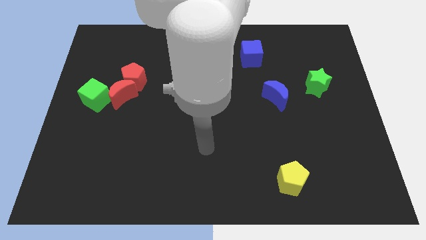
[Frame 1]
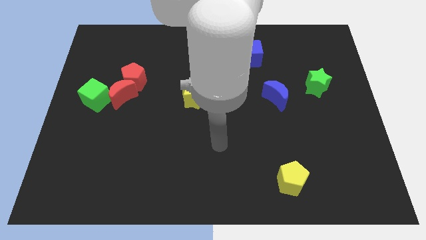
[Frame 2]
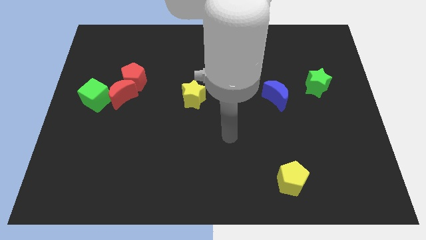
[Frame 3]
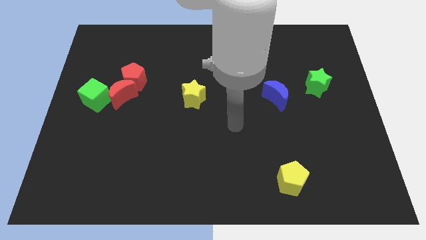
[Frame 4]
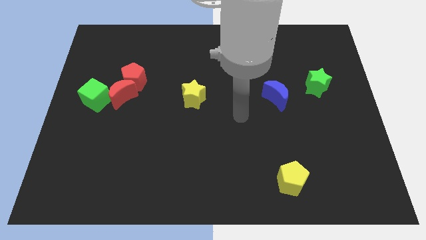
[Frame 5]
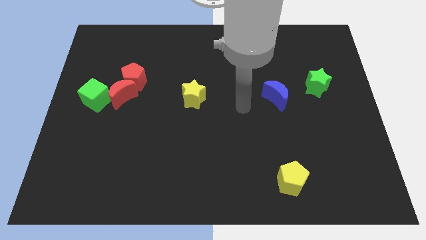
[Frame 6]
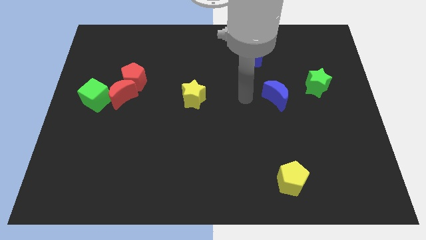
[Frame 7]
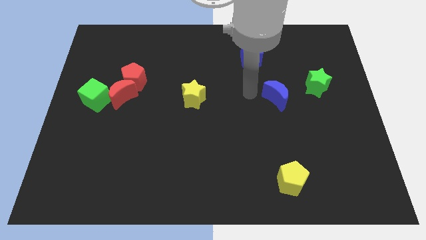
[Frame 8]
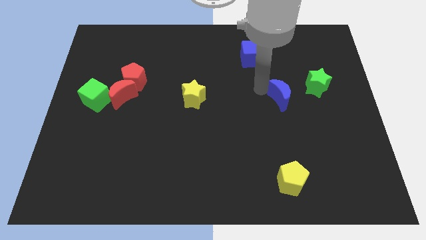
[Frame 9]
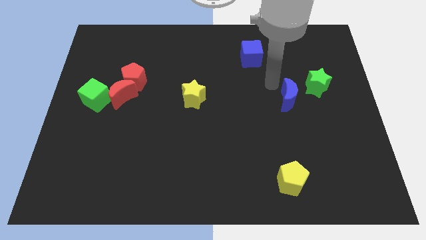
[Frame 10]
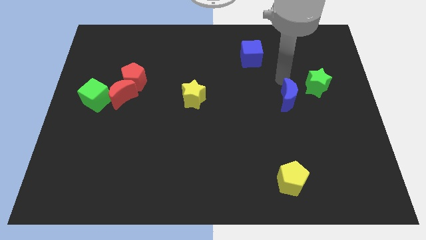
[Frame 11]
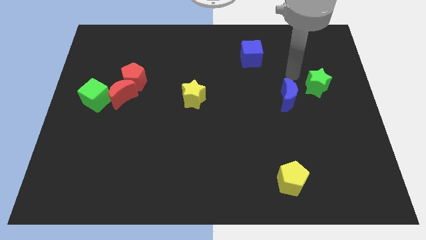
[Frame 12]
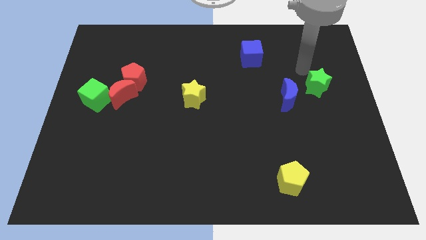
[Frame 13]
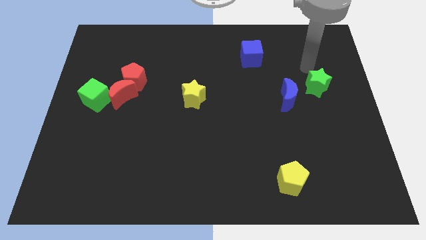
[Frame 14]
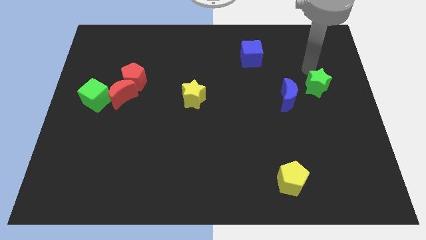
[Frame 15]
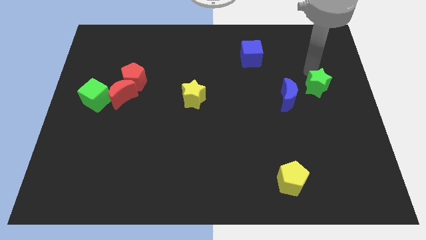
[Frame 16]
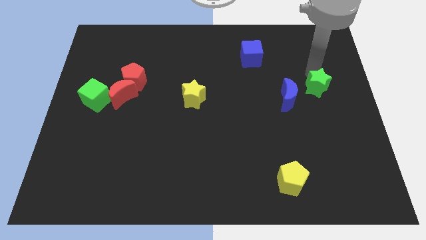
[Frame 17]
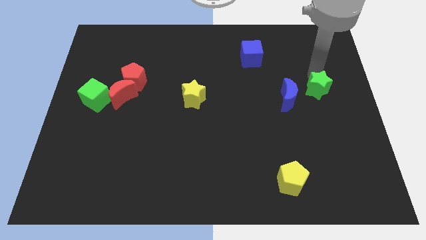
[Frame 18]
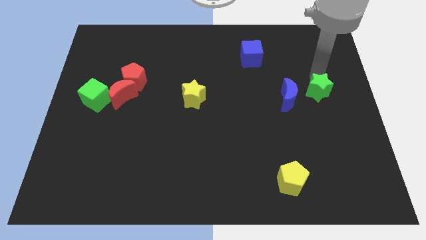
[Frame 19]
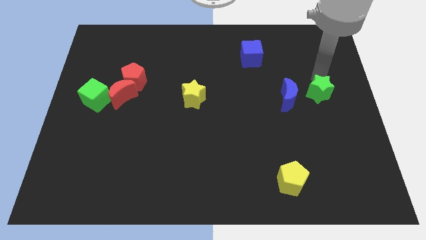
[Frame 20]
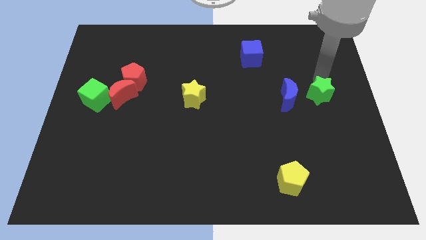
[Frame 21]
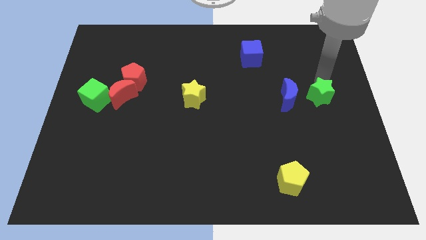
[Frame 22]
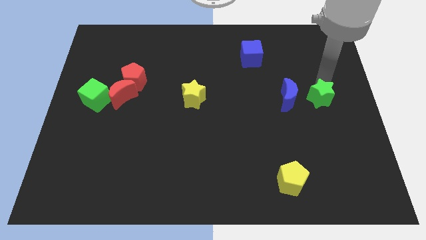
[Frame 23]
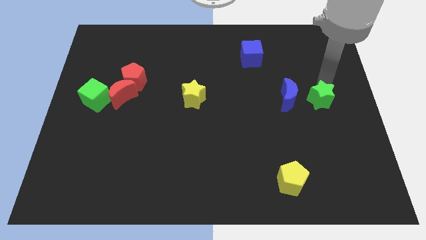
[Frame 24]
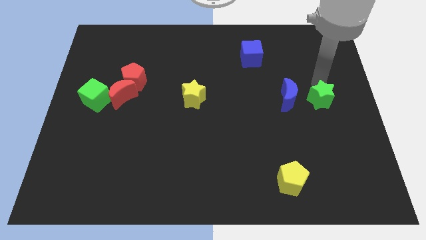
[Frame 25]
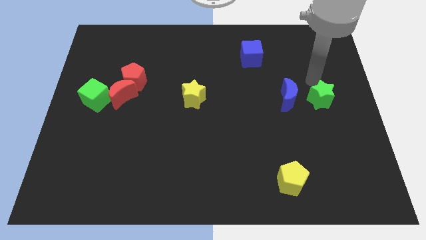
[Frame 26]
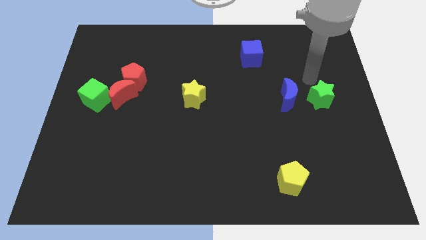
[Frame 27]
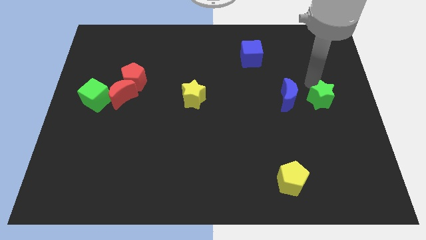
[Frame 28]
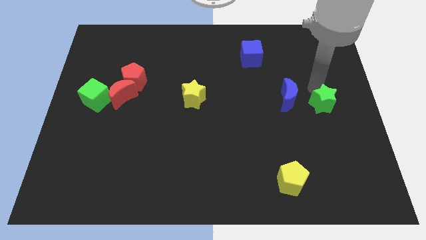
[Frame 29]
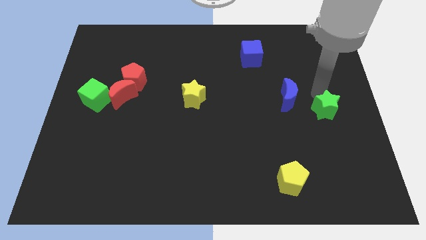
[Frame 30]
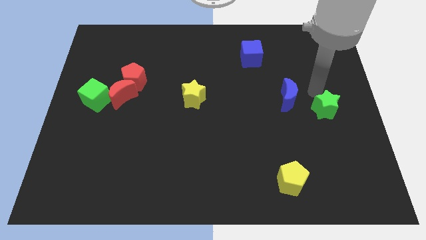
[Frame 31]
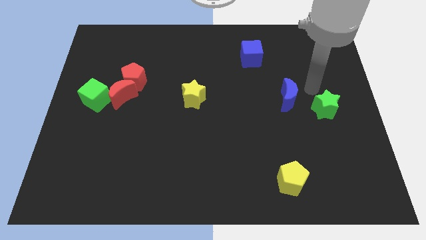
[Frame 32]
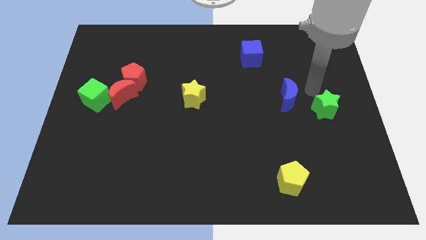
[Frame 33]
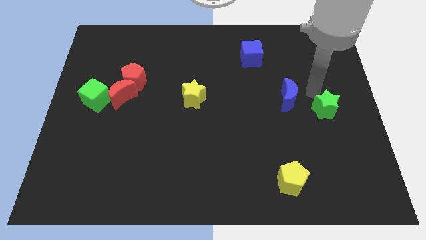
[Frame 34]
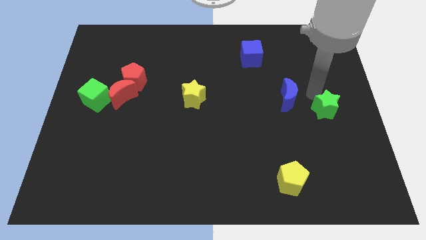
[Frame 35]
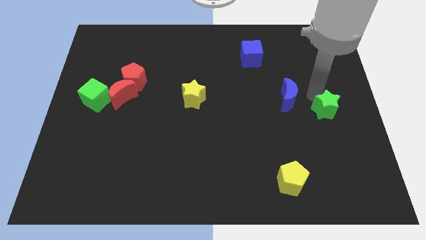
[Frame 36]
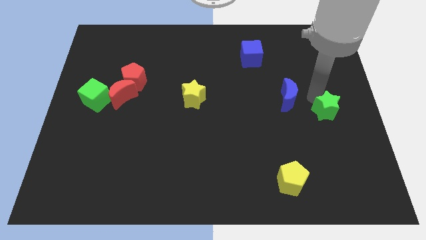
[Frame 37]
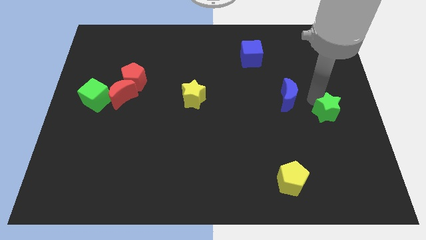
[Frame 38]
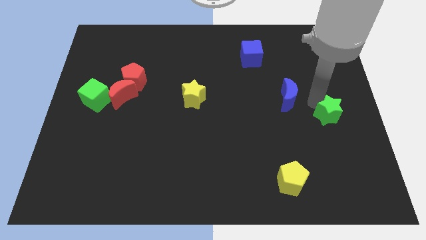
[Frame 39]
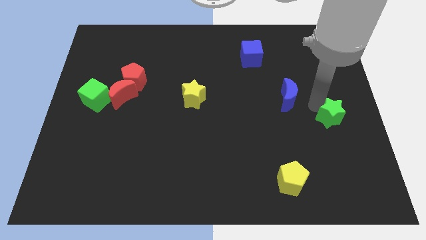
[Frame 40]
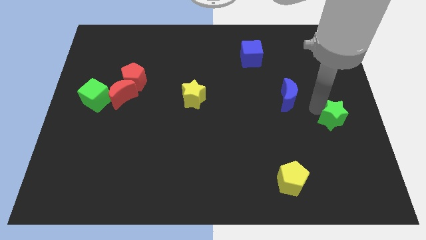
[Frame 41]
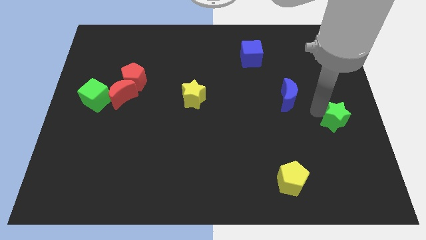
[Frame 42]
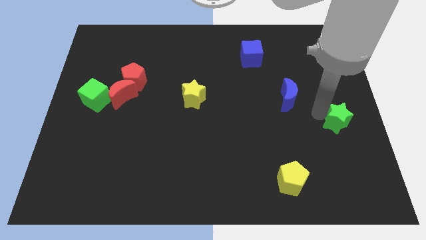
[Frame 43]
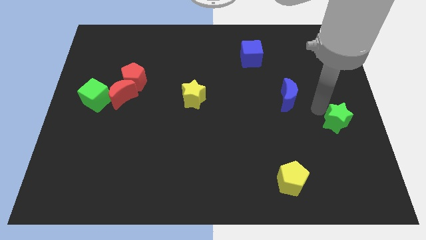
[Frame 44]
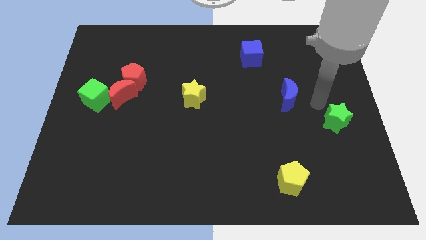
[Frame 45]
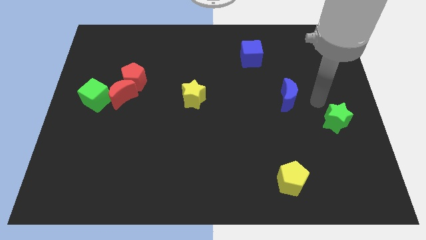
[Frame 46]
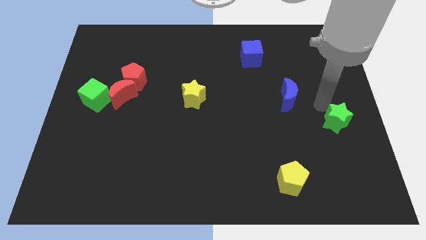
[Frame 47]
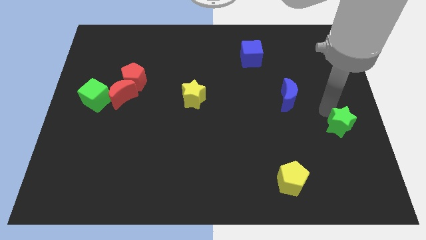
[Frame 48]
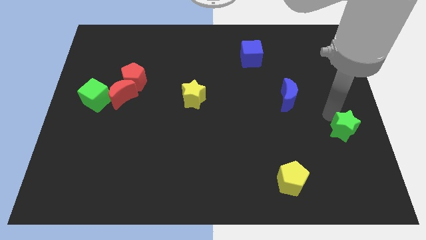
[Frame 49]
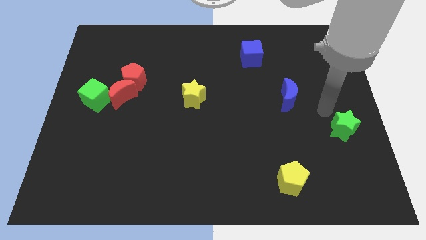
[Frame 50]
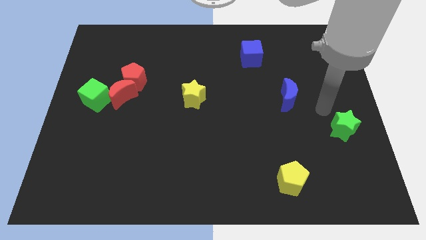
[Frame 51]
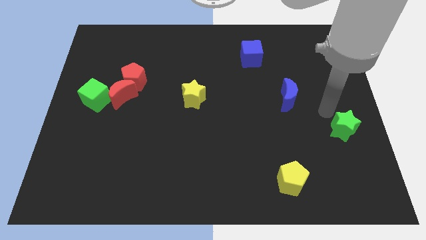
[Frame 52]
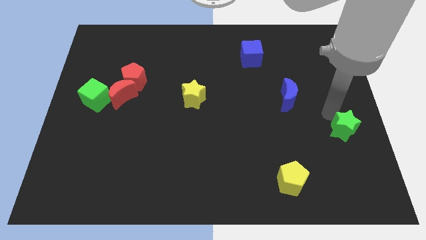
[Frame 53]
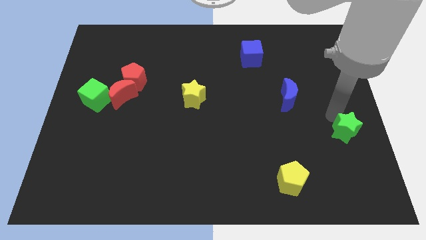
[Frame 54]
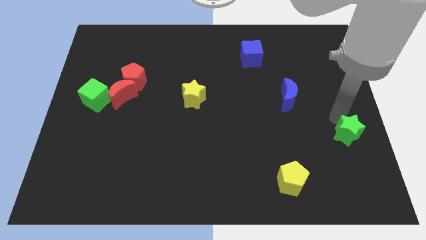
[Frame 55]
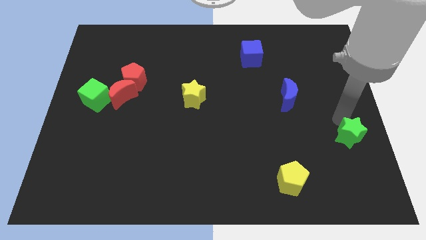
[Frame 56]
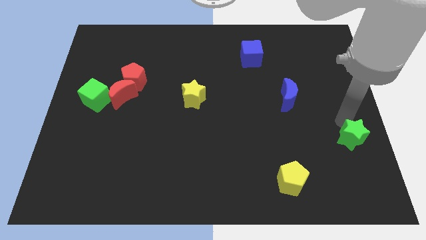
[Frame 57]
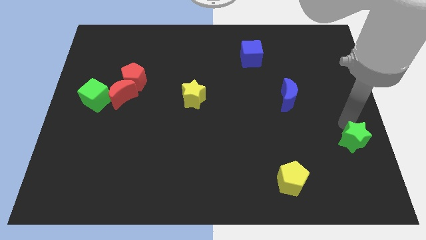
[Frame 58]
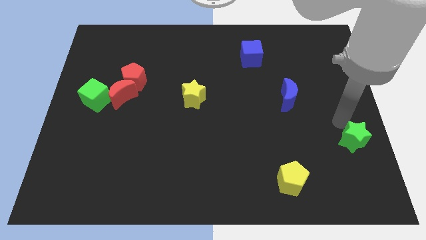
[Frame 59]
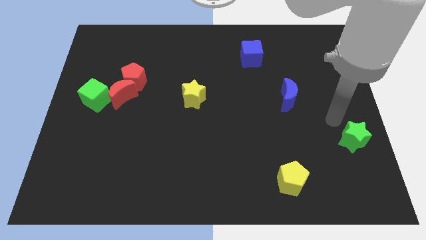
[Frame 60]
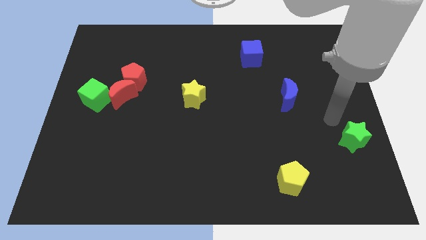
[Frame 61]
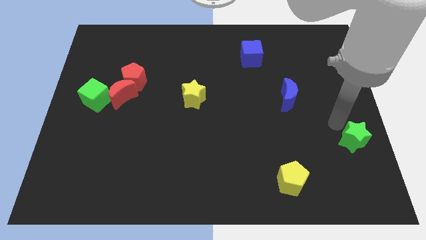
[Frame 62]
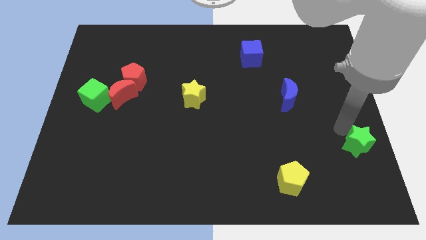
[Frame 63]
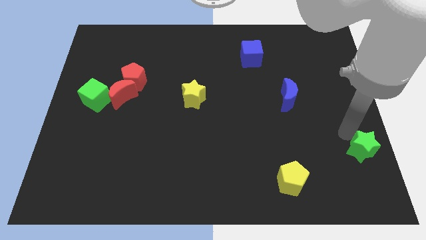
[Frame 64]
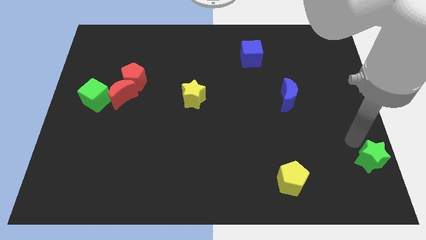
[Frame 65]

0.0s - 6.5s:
put the green star to the bottom right of the board

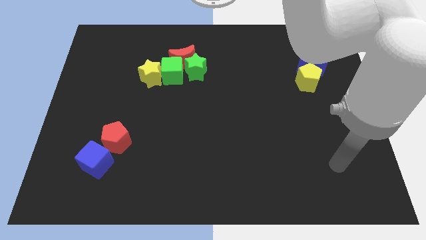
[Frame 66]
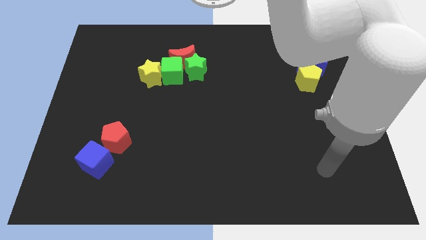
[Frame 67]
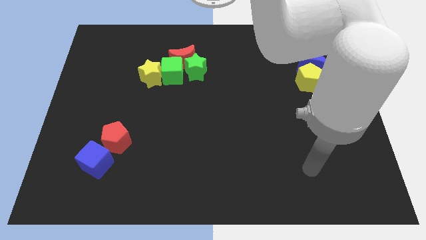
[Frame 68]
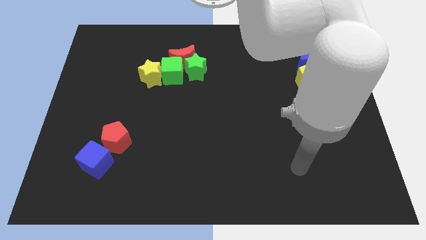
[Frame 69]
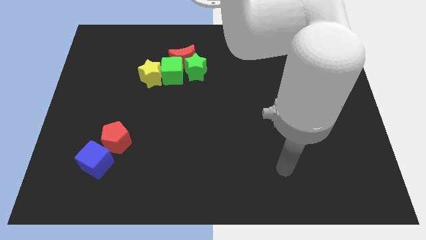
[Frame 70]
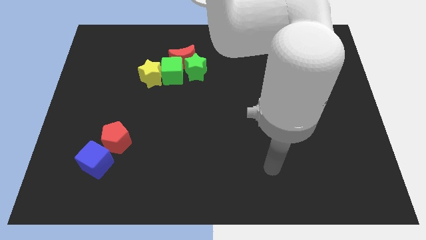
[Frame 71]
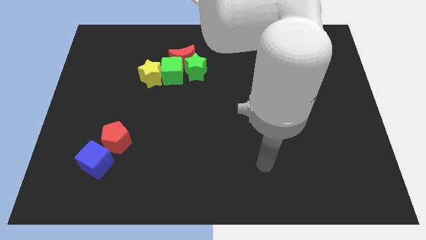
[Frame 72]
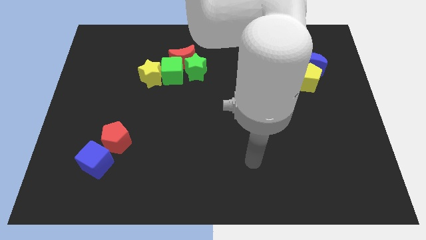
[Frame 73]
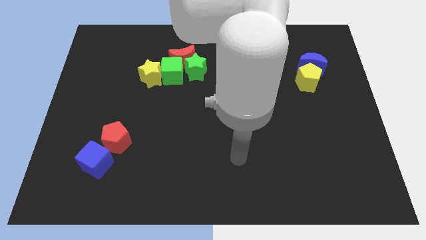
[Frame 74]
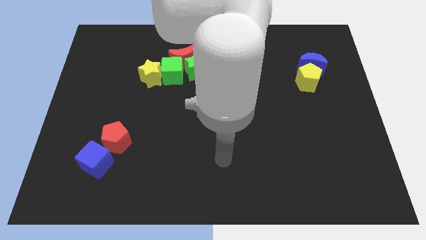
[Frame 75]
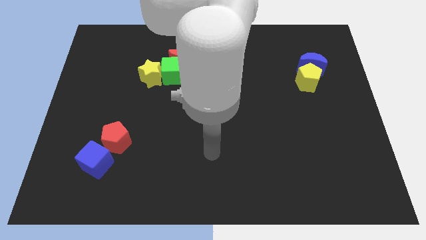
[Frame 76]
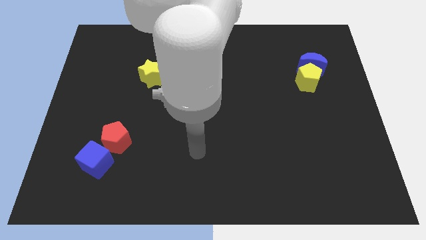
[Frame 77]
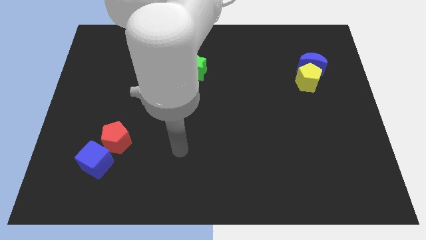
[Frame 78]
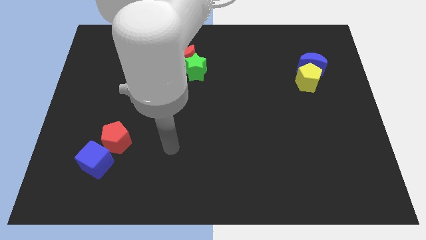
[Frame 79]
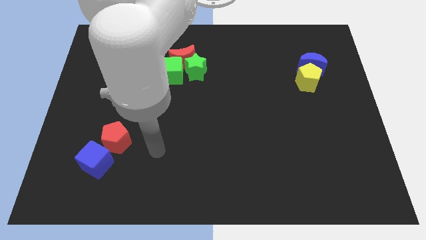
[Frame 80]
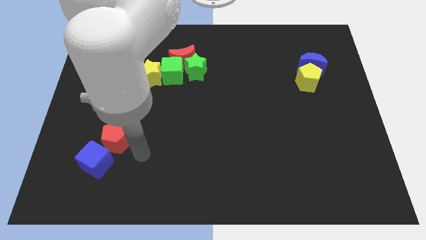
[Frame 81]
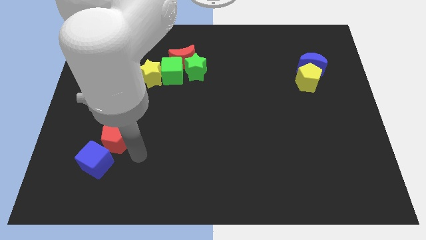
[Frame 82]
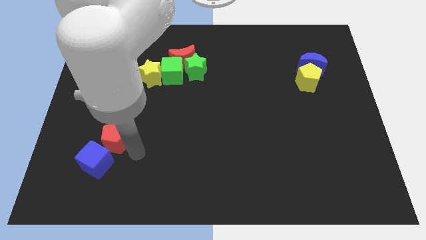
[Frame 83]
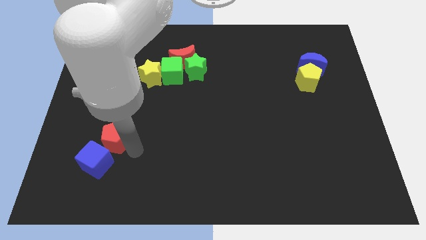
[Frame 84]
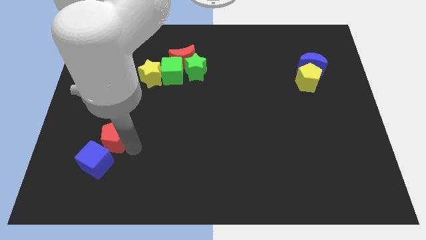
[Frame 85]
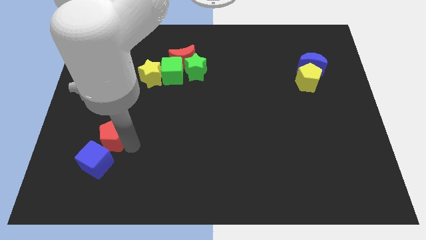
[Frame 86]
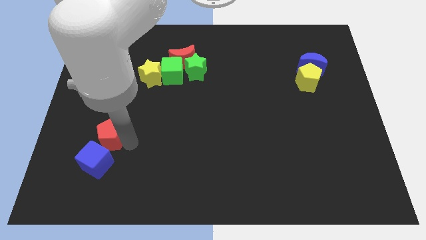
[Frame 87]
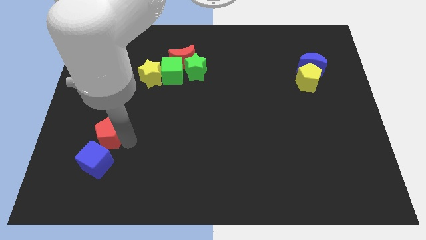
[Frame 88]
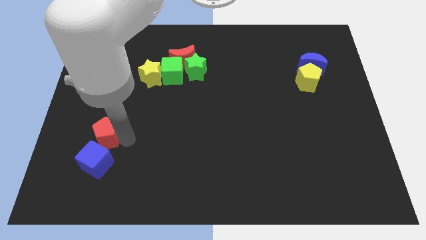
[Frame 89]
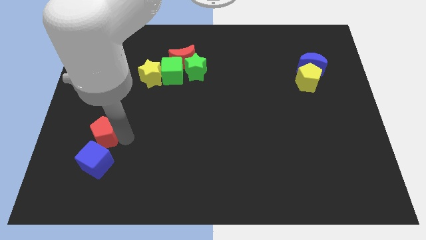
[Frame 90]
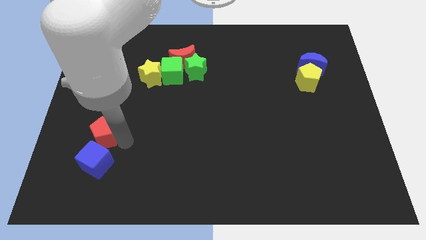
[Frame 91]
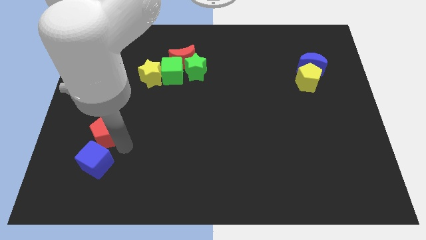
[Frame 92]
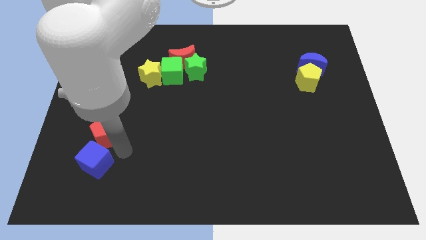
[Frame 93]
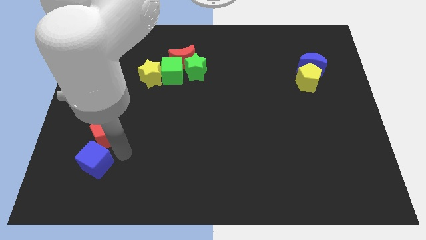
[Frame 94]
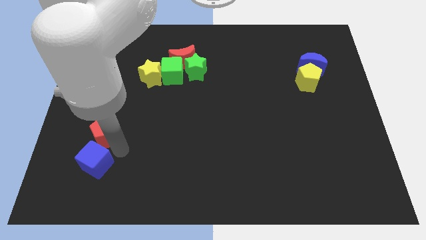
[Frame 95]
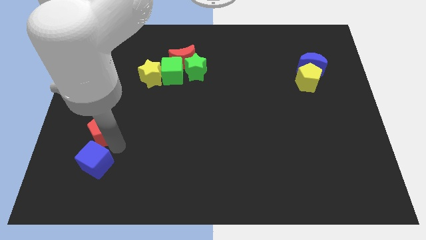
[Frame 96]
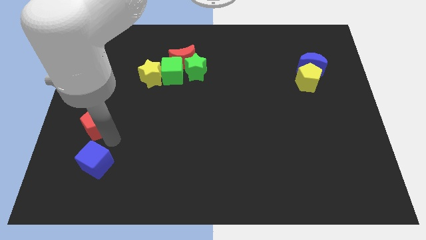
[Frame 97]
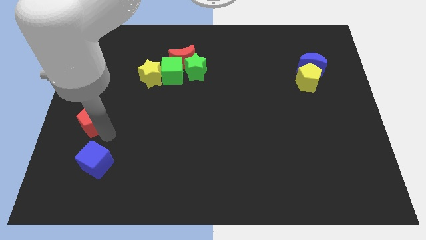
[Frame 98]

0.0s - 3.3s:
put the red pentagon to the left side
